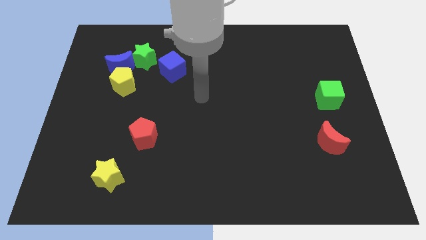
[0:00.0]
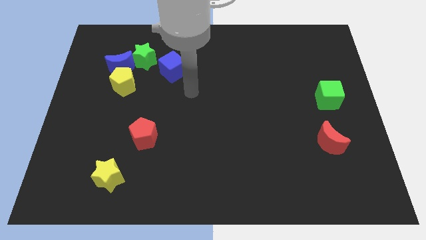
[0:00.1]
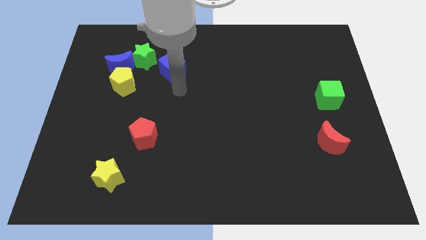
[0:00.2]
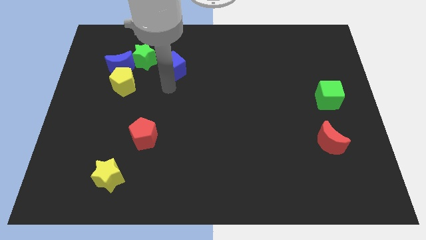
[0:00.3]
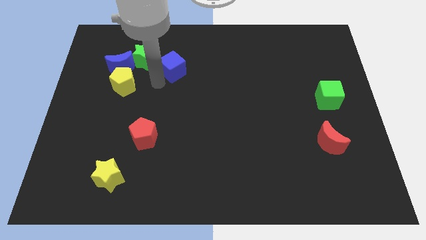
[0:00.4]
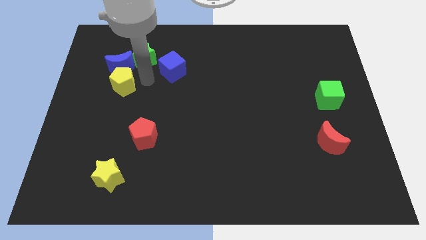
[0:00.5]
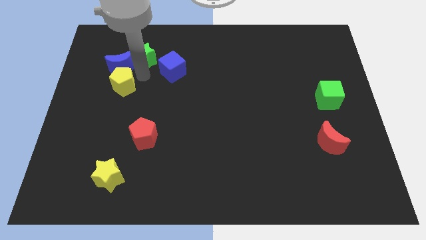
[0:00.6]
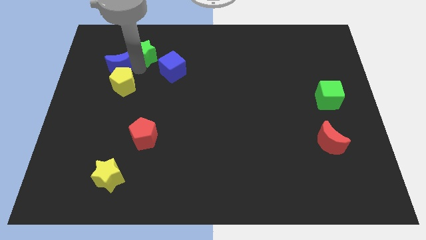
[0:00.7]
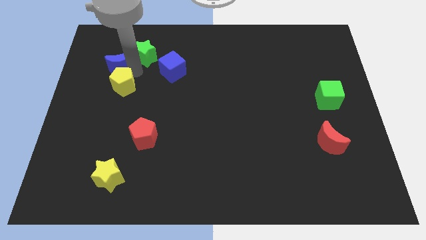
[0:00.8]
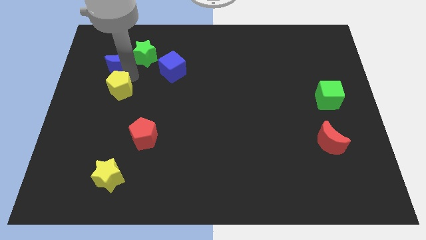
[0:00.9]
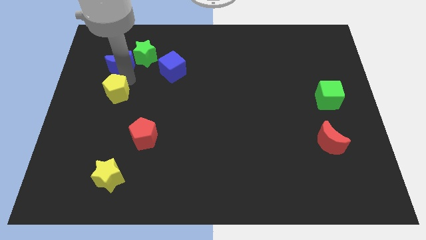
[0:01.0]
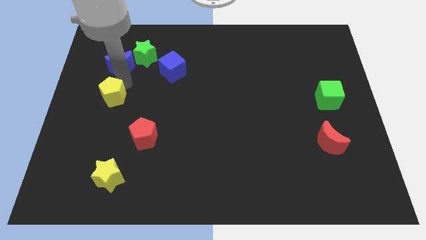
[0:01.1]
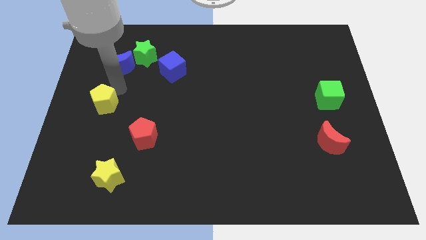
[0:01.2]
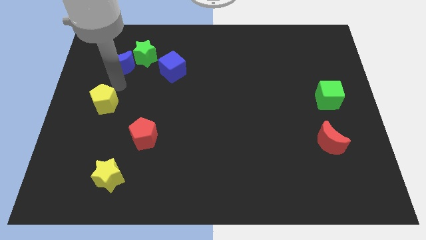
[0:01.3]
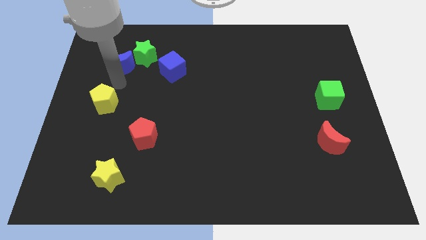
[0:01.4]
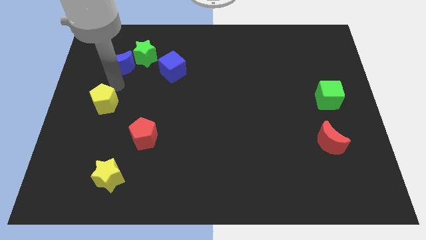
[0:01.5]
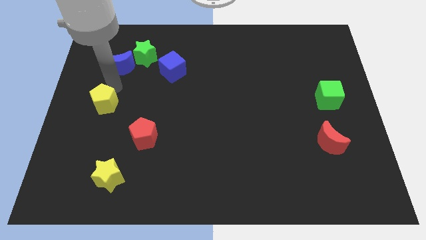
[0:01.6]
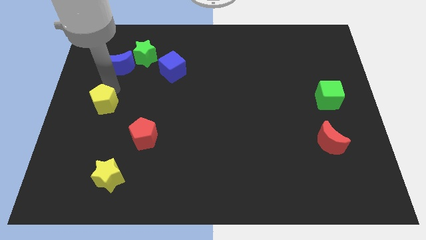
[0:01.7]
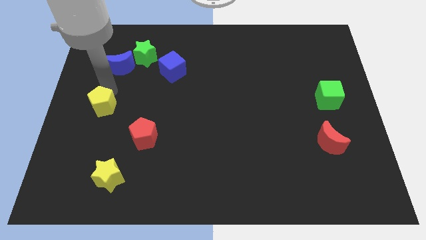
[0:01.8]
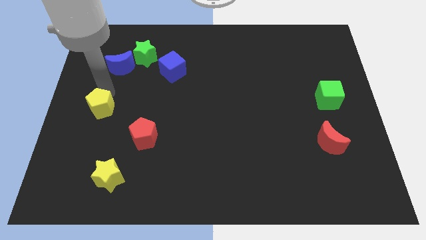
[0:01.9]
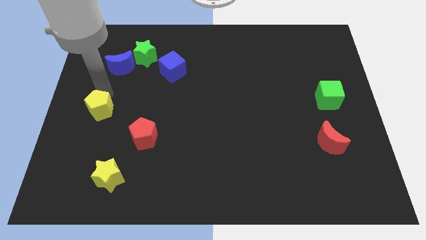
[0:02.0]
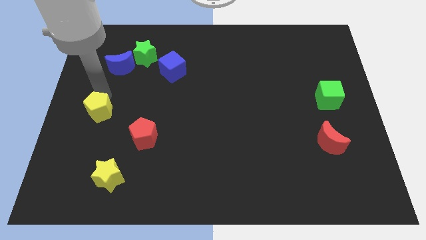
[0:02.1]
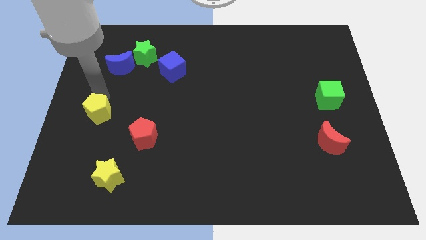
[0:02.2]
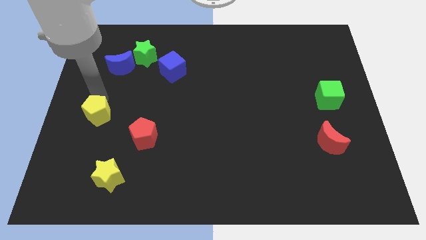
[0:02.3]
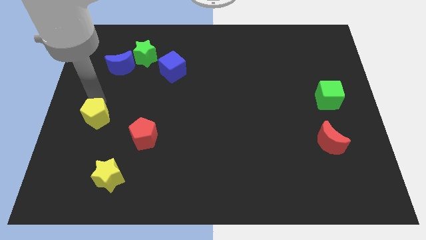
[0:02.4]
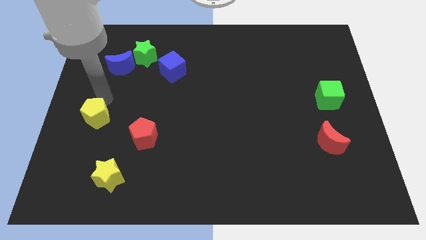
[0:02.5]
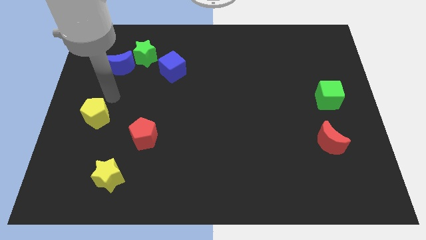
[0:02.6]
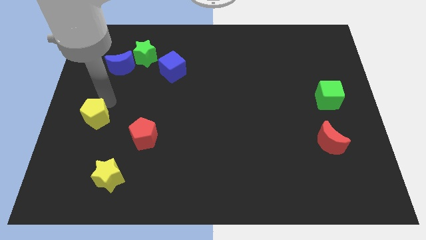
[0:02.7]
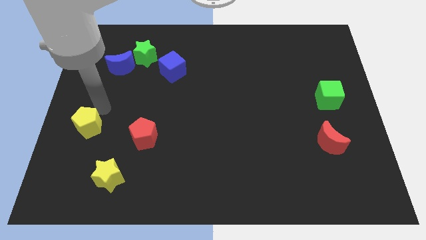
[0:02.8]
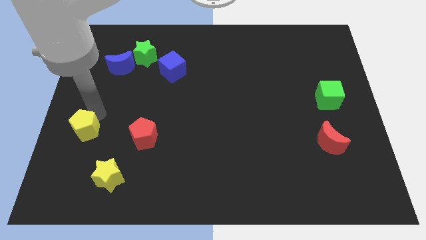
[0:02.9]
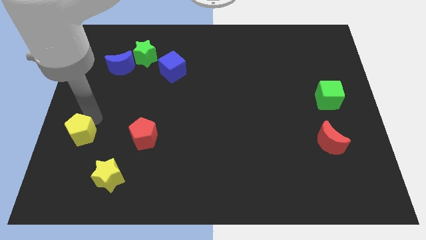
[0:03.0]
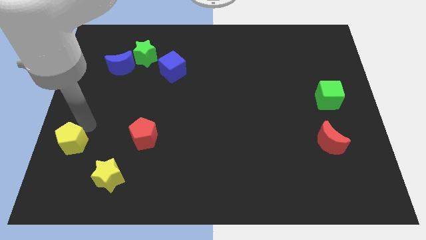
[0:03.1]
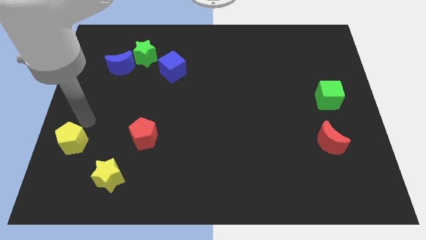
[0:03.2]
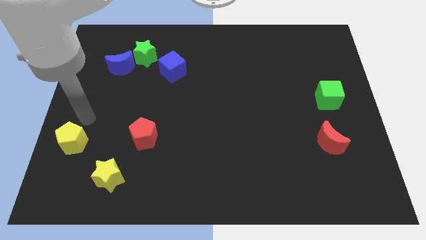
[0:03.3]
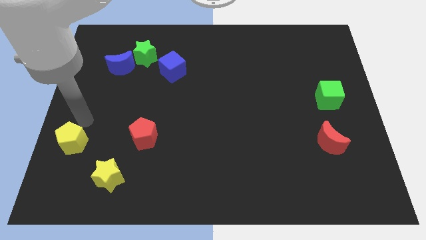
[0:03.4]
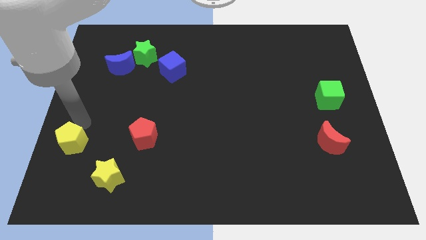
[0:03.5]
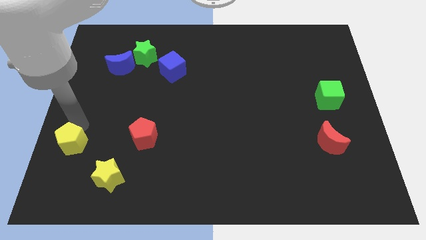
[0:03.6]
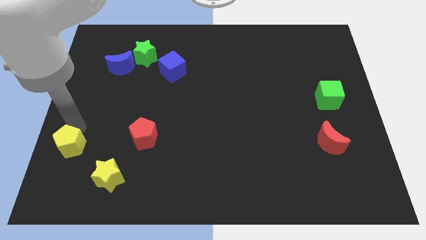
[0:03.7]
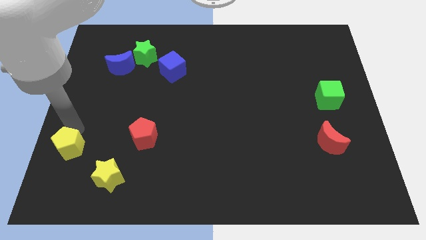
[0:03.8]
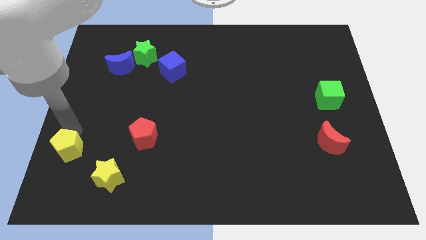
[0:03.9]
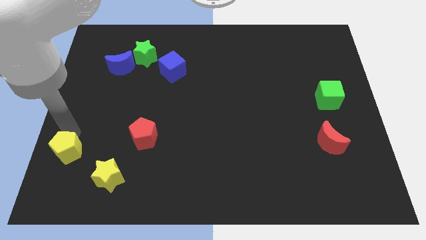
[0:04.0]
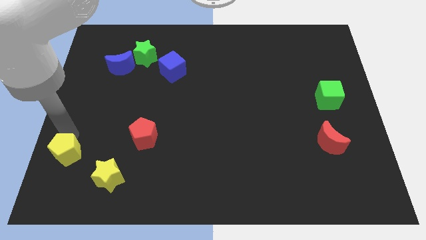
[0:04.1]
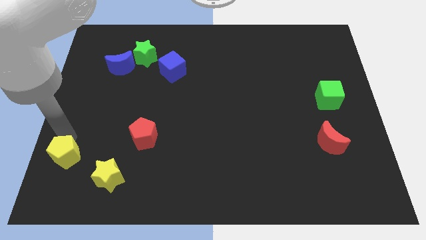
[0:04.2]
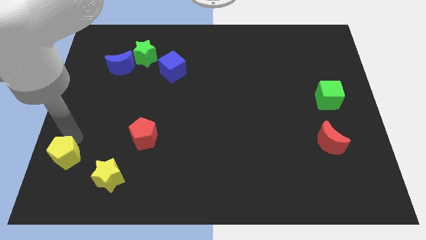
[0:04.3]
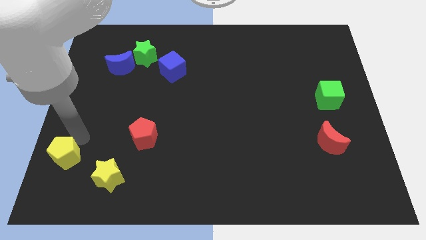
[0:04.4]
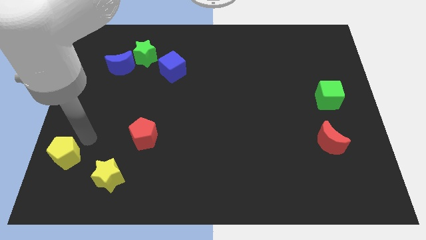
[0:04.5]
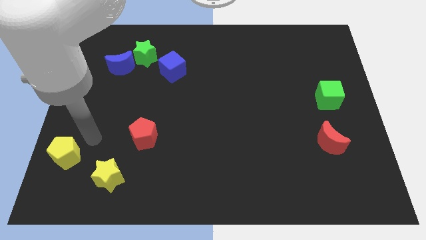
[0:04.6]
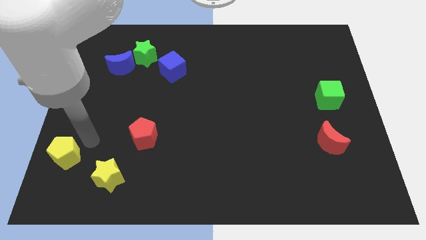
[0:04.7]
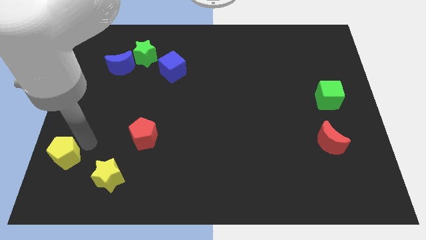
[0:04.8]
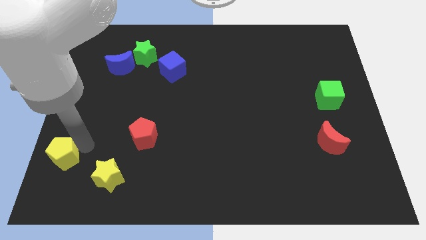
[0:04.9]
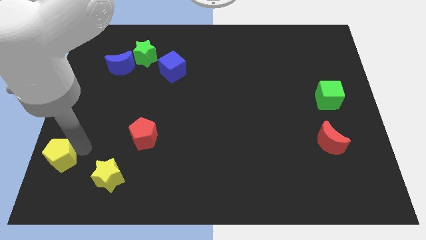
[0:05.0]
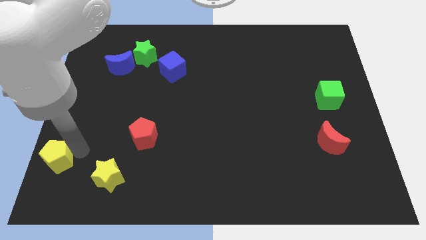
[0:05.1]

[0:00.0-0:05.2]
move the yellow pentagon to the bottom left

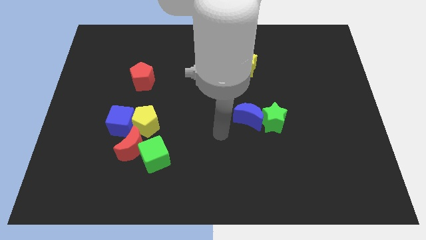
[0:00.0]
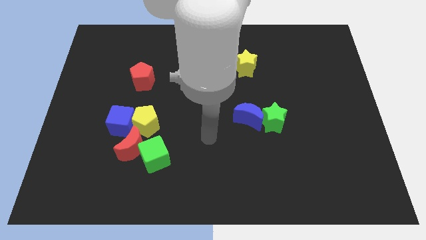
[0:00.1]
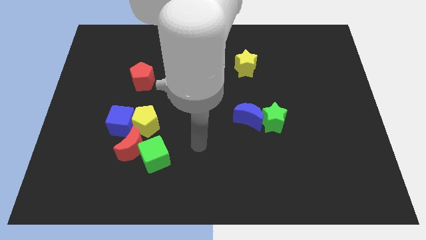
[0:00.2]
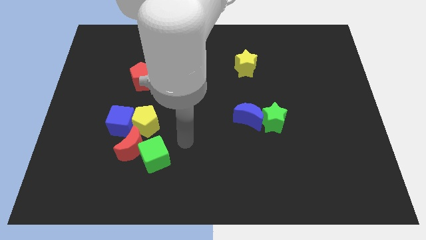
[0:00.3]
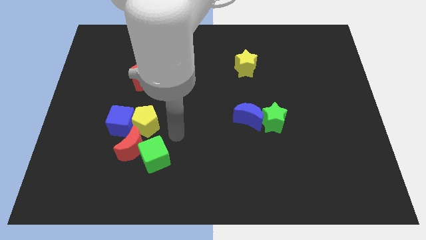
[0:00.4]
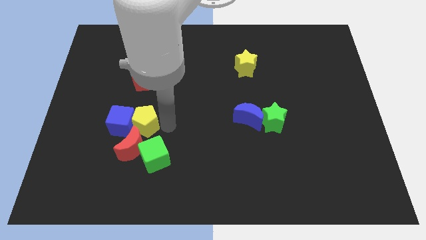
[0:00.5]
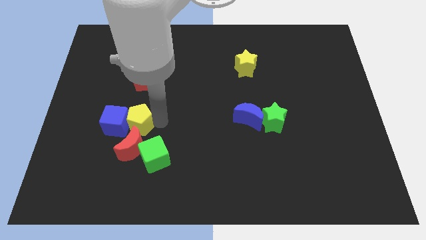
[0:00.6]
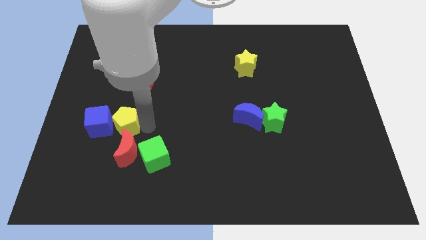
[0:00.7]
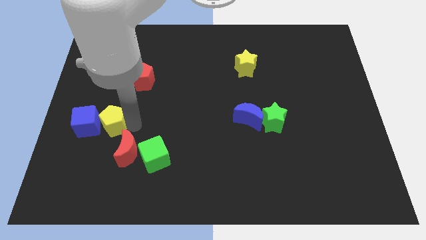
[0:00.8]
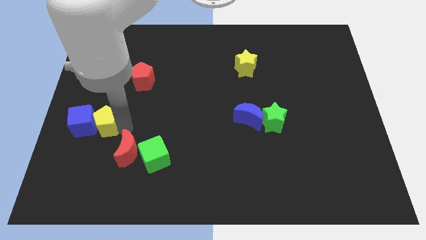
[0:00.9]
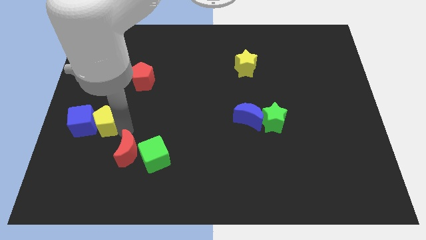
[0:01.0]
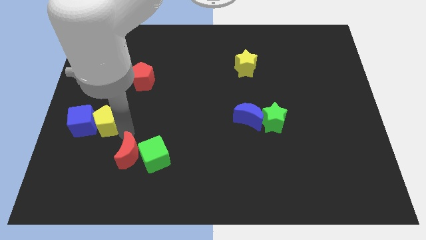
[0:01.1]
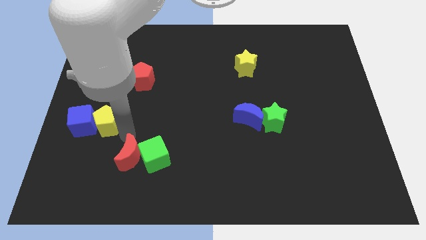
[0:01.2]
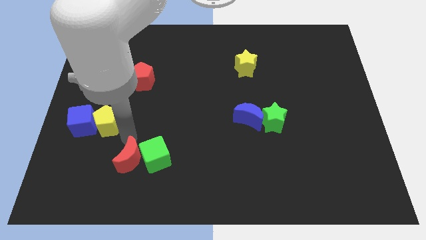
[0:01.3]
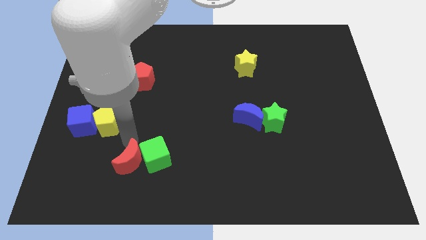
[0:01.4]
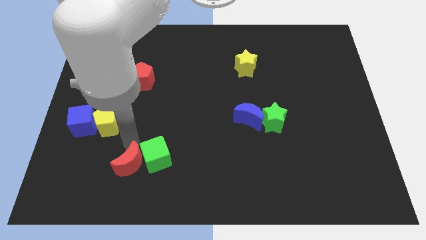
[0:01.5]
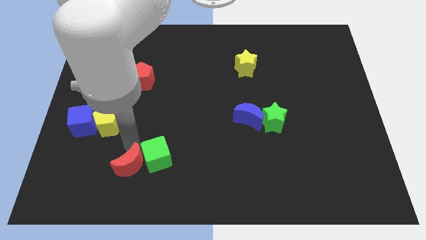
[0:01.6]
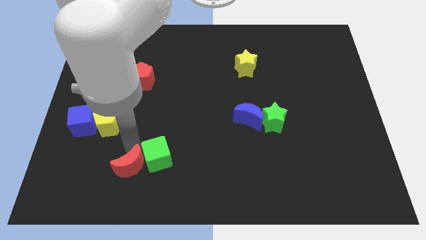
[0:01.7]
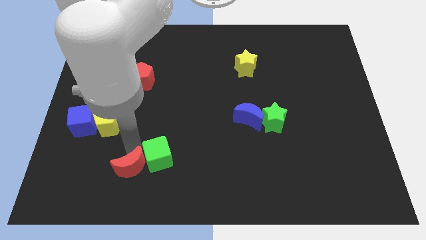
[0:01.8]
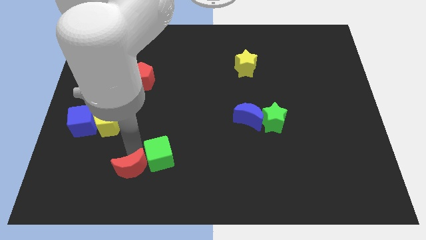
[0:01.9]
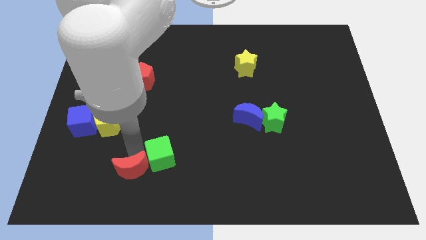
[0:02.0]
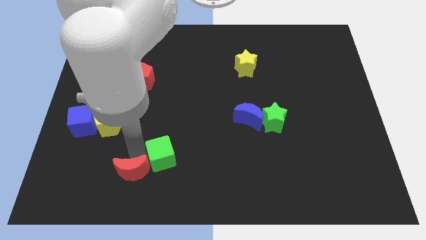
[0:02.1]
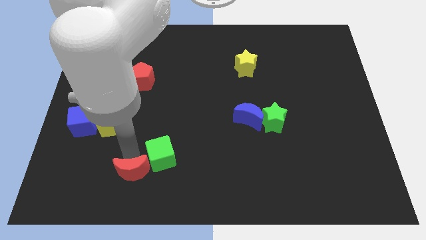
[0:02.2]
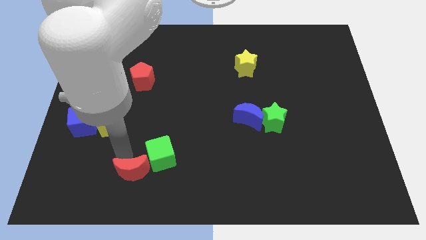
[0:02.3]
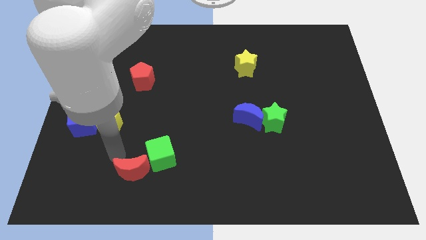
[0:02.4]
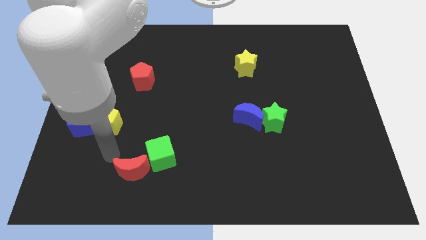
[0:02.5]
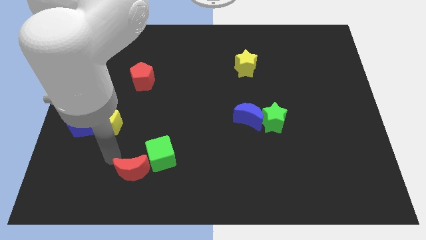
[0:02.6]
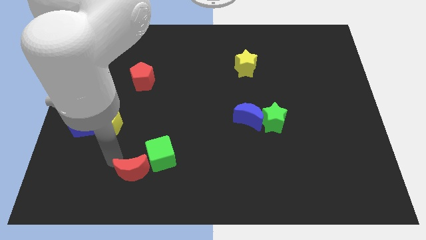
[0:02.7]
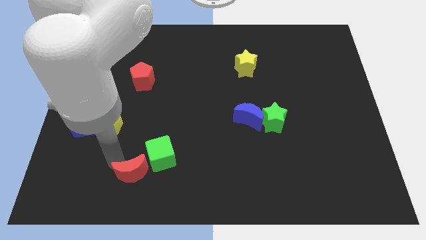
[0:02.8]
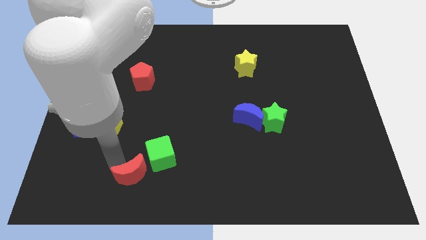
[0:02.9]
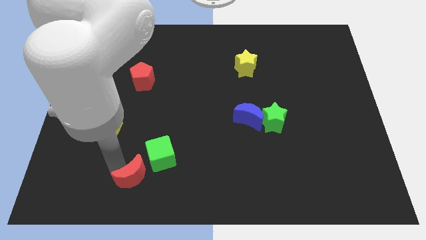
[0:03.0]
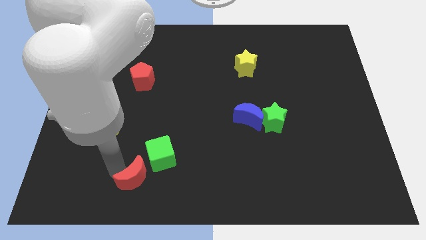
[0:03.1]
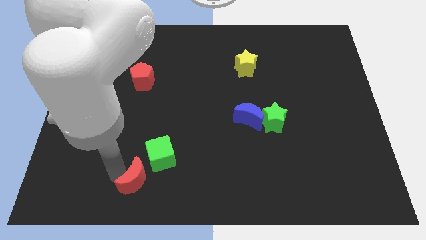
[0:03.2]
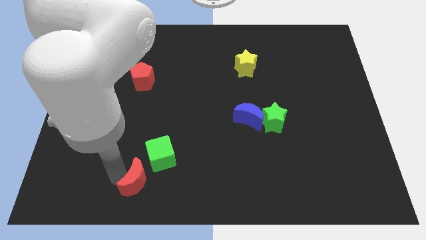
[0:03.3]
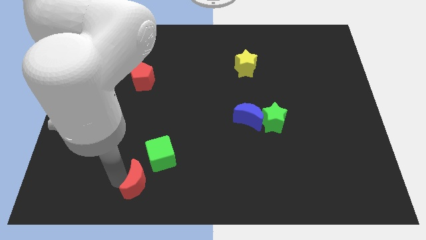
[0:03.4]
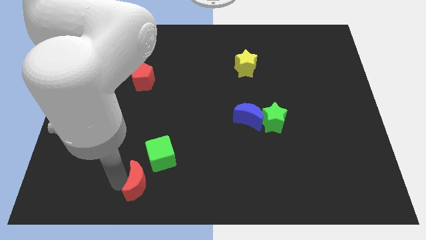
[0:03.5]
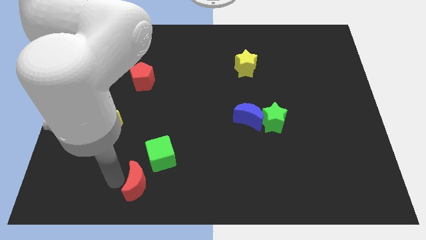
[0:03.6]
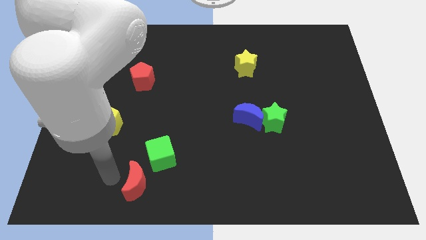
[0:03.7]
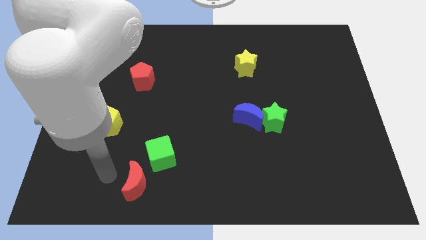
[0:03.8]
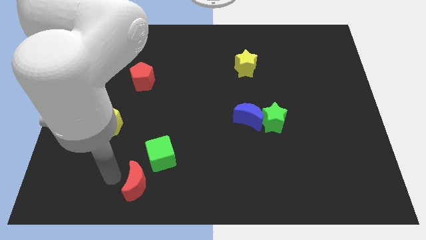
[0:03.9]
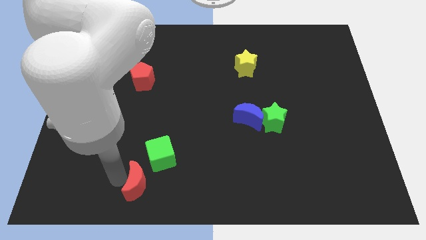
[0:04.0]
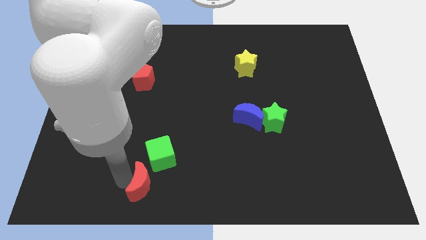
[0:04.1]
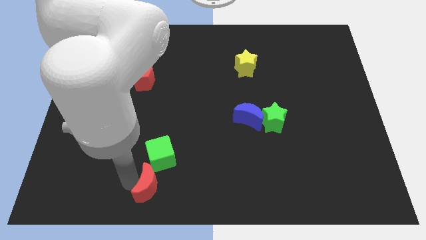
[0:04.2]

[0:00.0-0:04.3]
push the red moon to the bottom side
